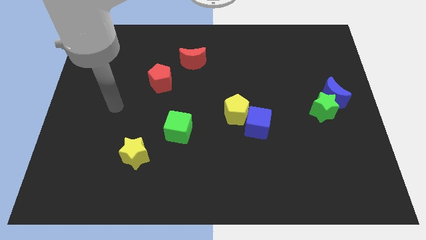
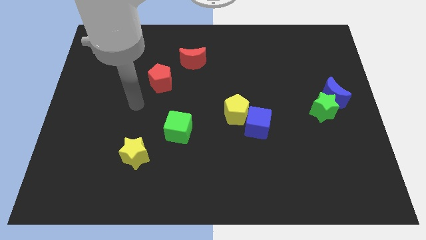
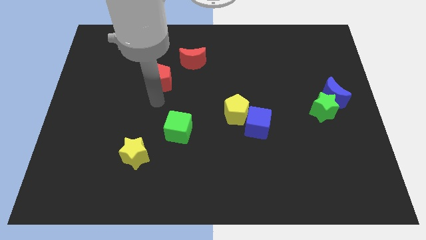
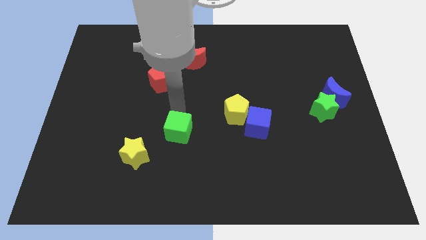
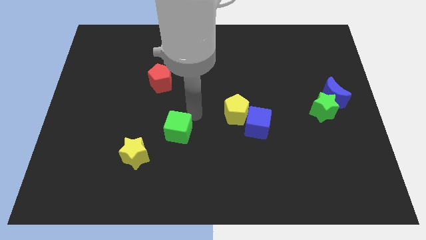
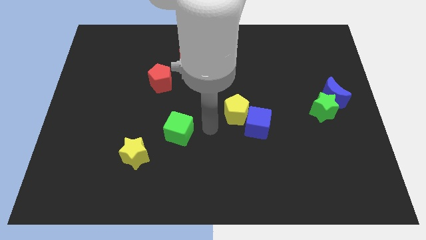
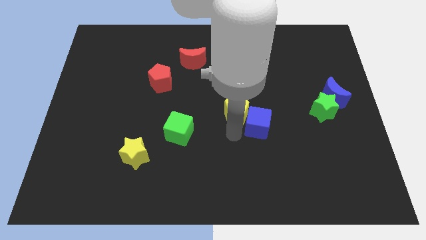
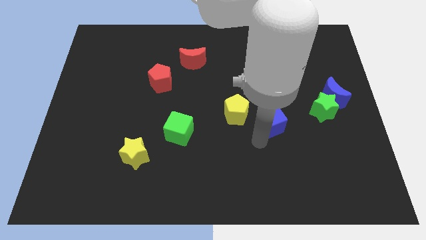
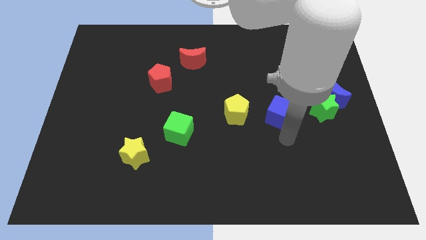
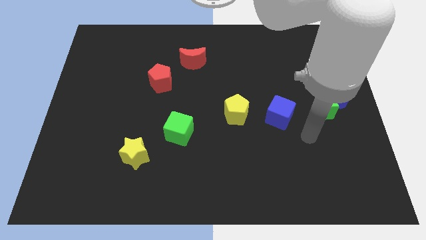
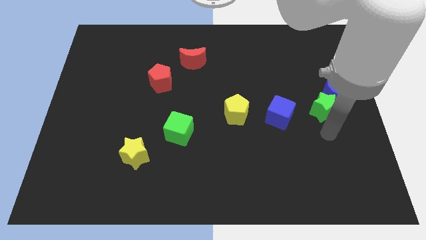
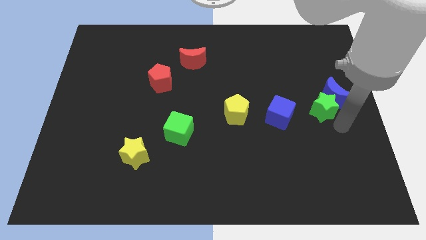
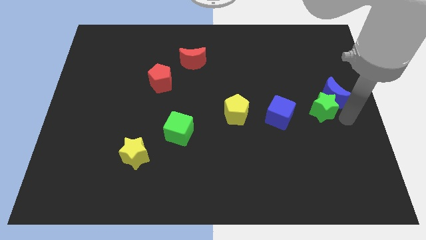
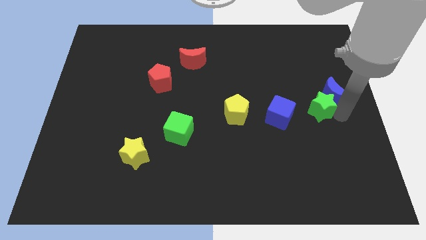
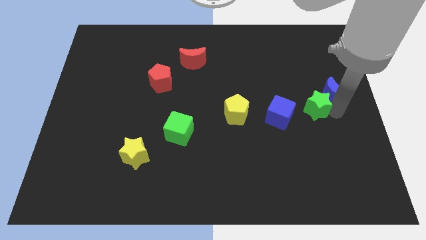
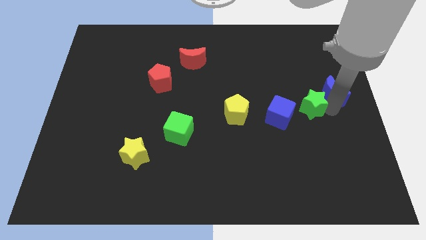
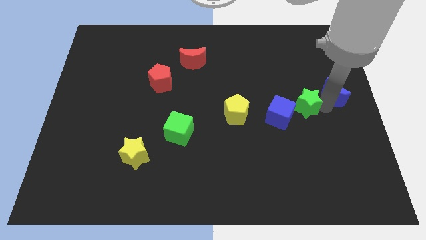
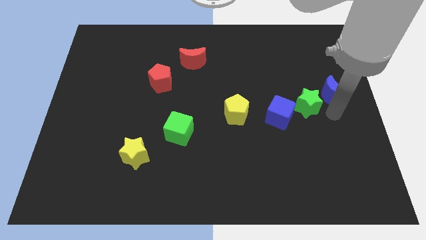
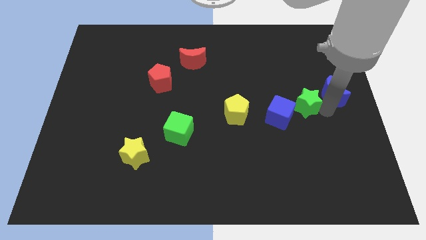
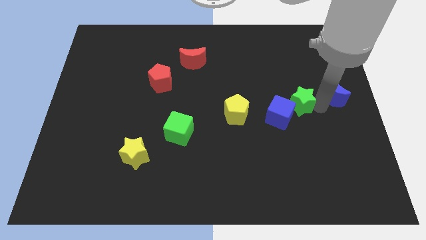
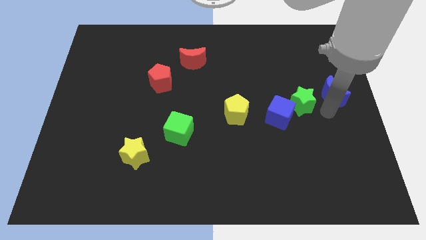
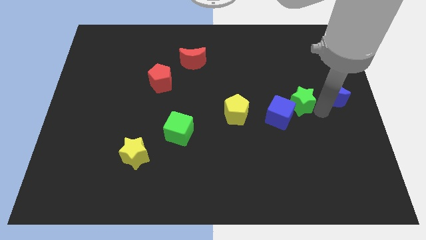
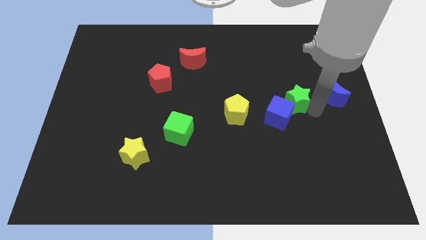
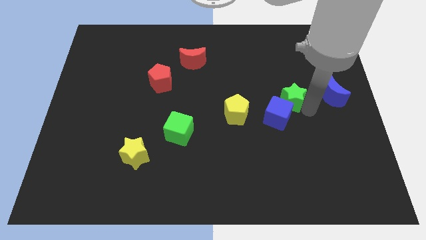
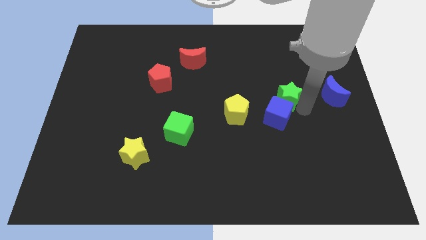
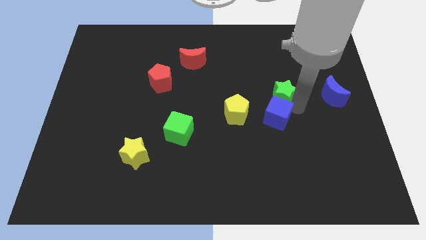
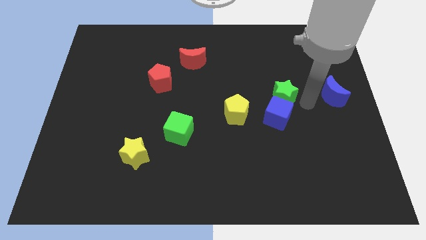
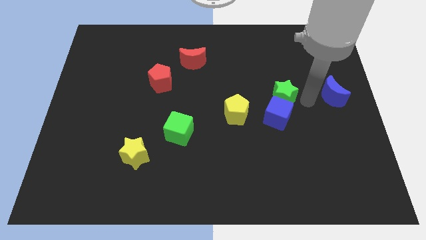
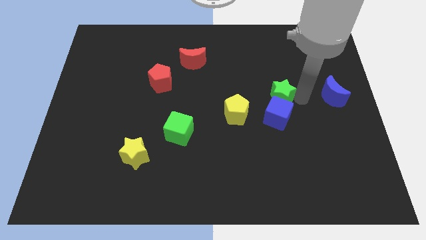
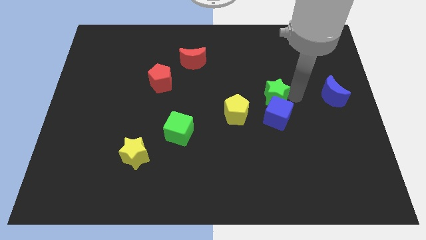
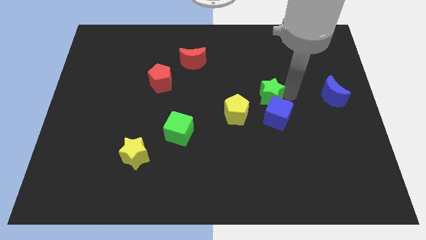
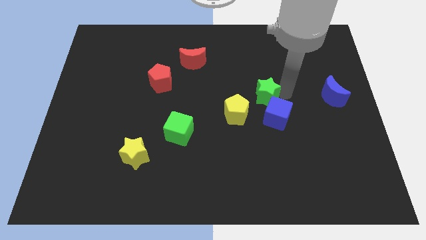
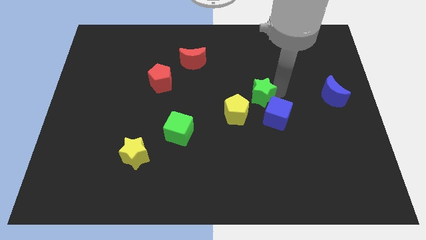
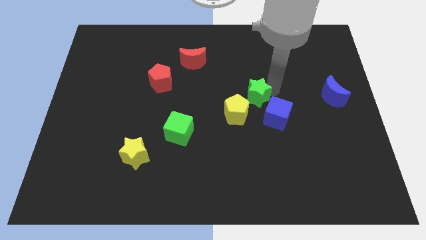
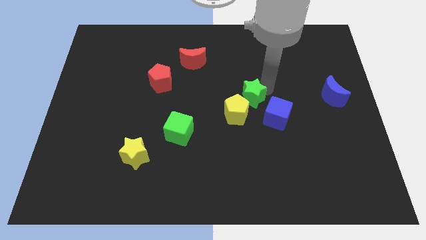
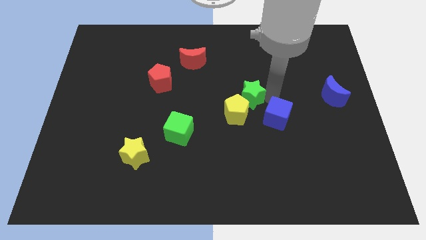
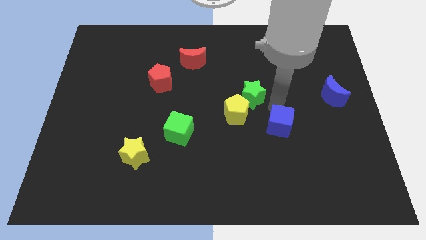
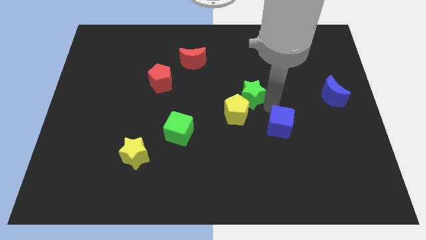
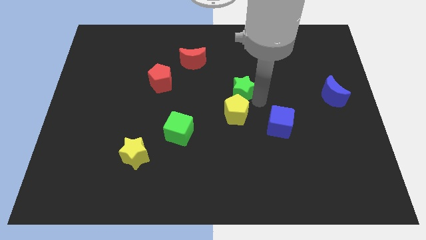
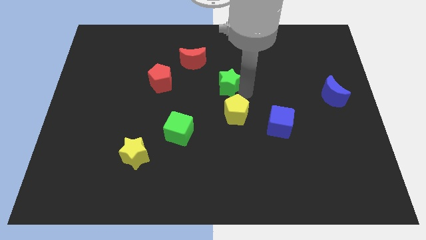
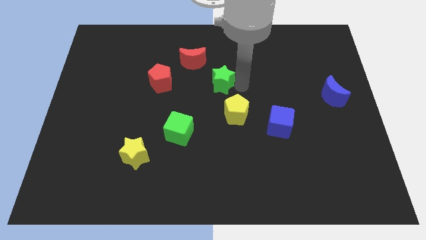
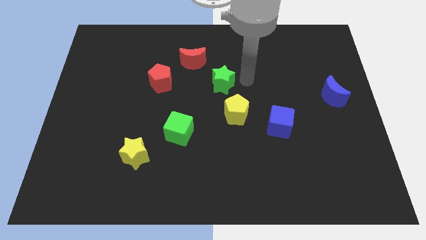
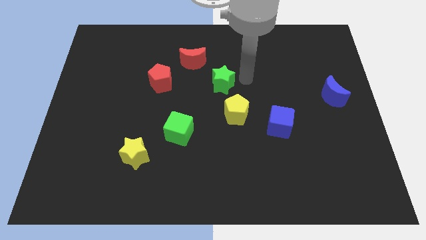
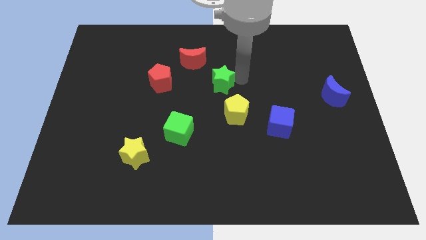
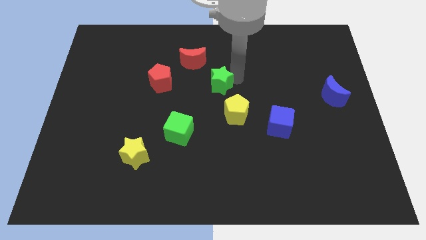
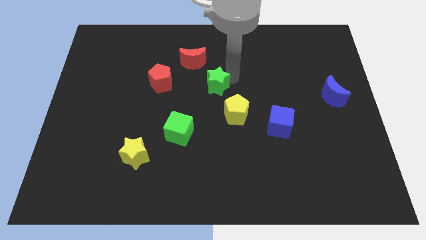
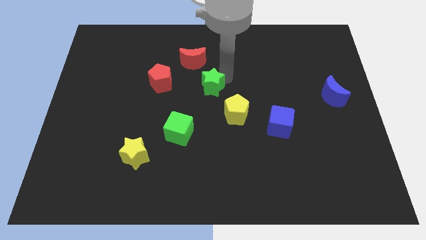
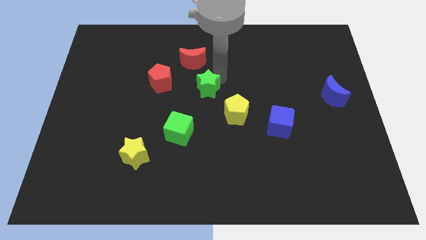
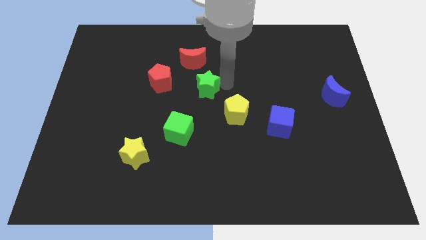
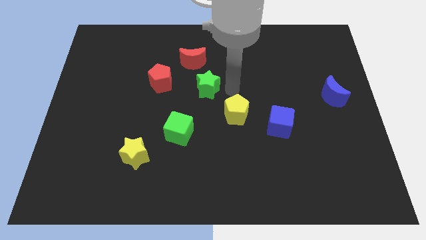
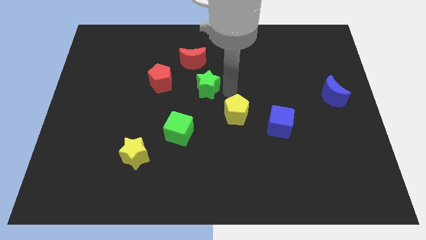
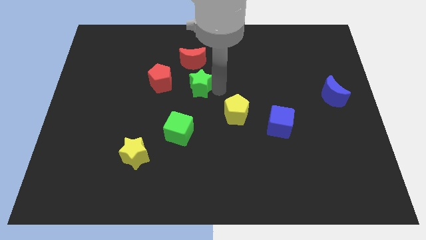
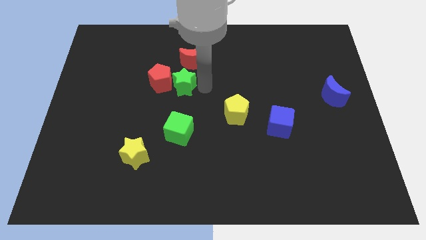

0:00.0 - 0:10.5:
push the green star towards the red pentagon

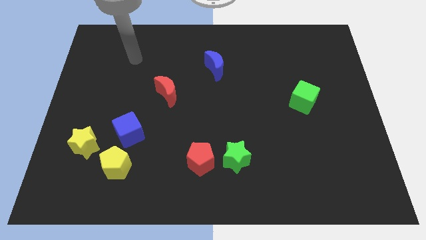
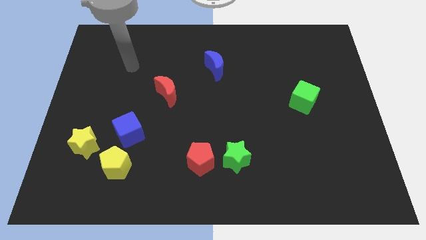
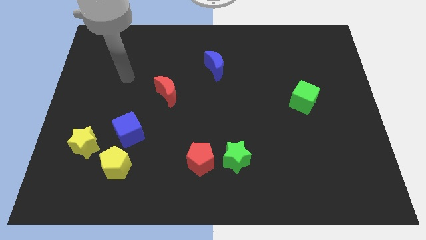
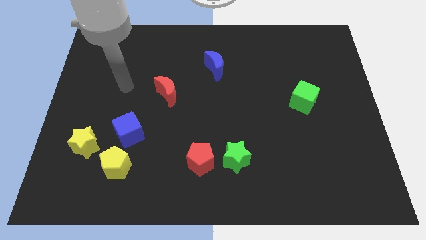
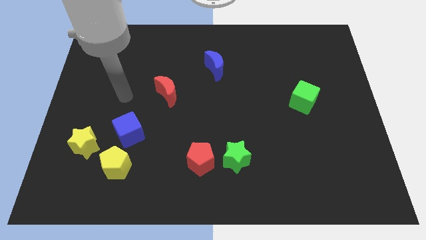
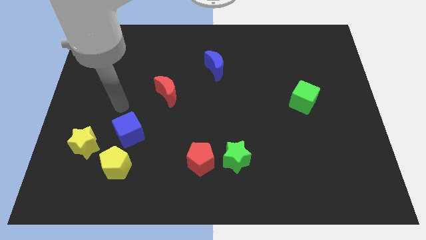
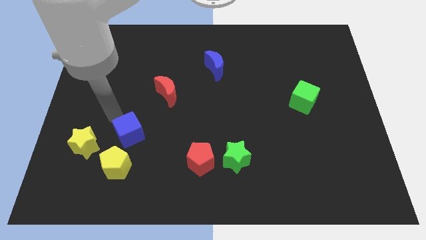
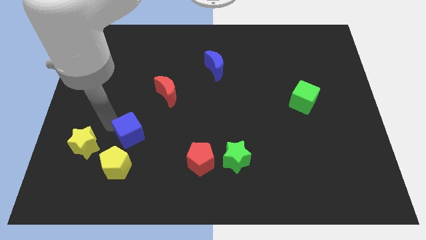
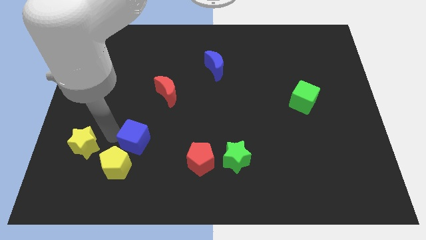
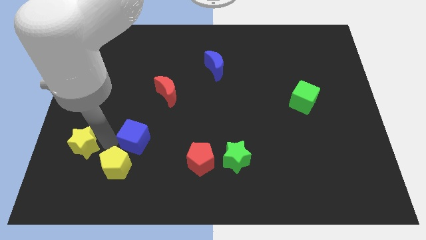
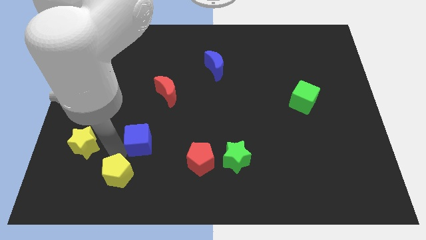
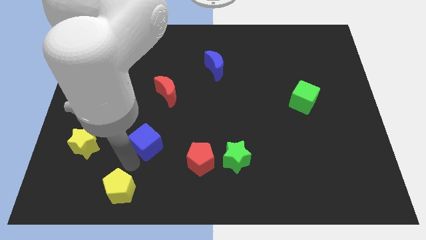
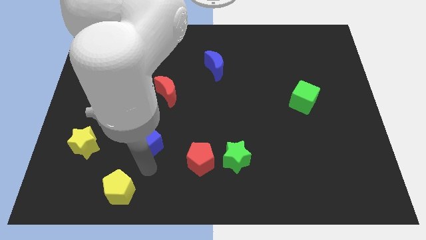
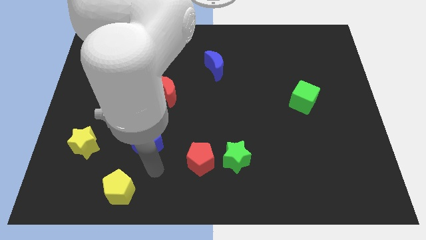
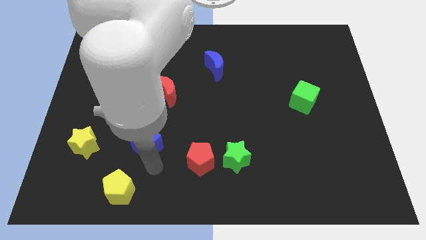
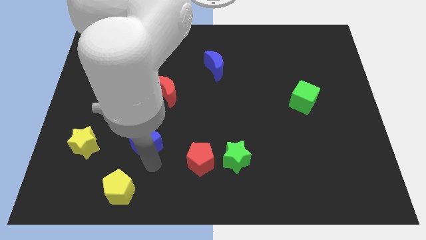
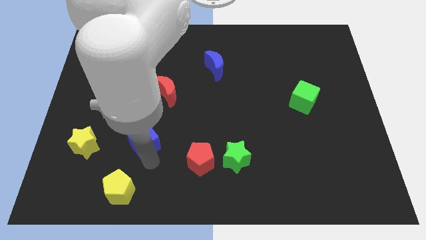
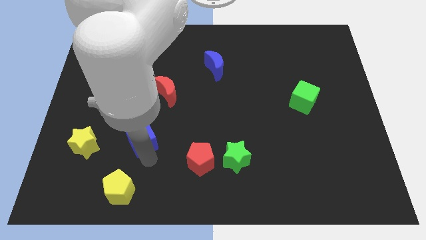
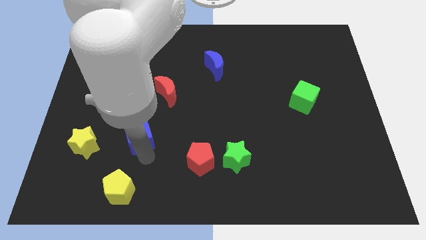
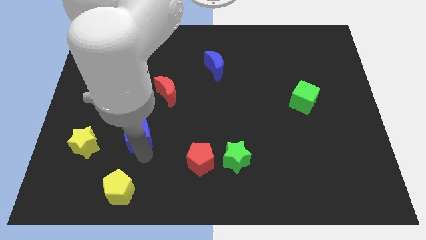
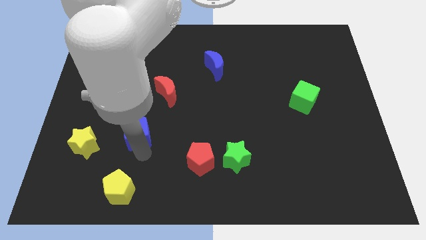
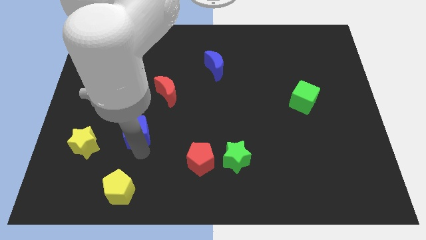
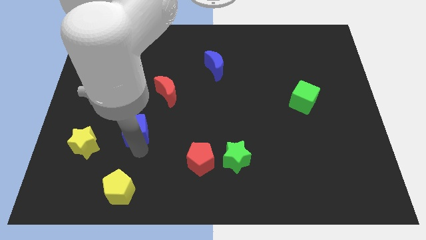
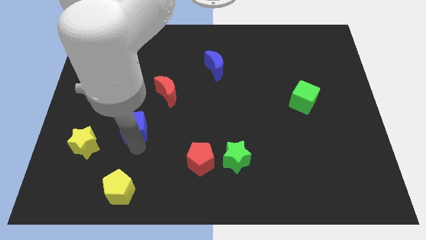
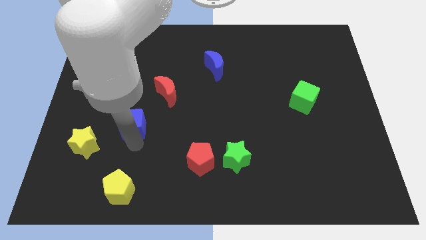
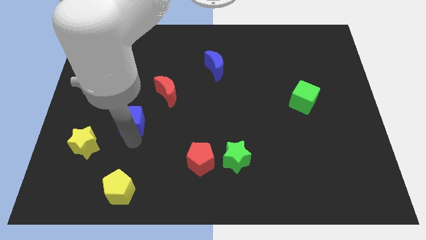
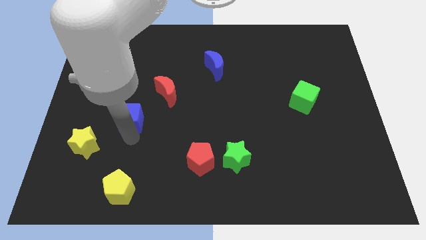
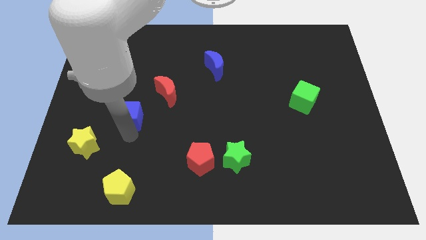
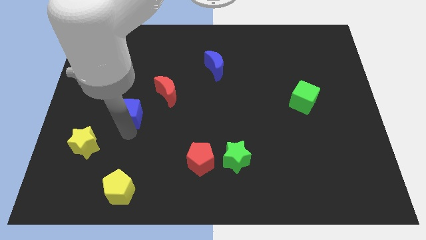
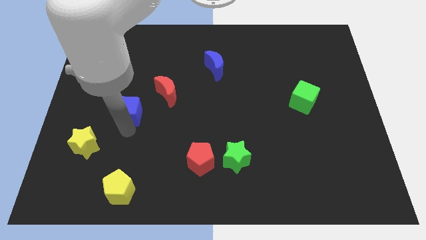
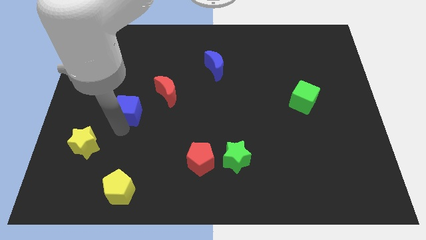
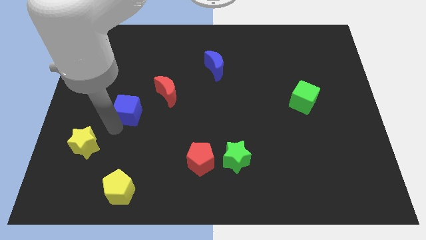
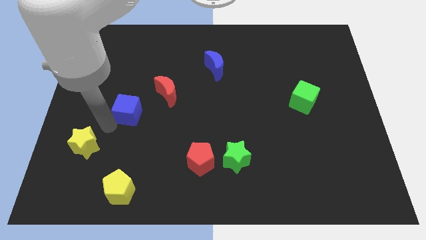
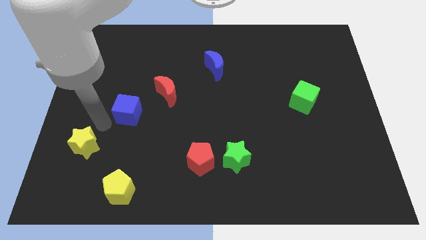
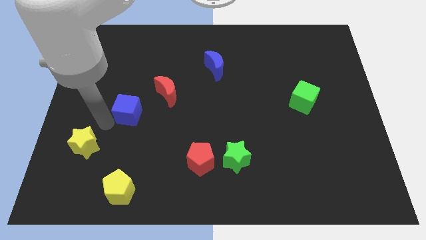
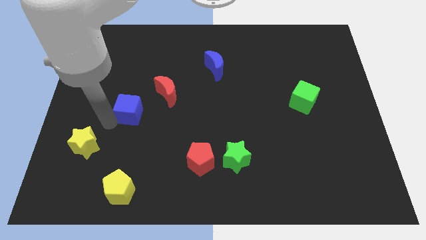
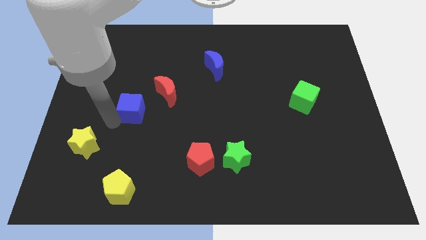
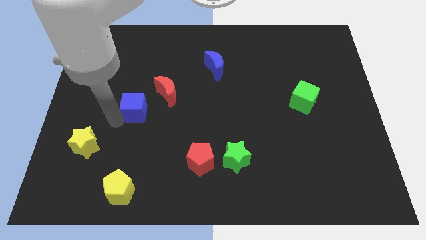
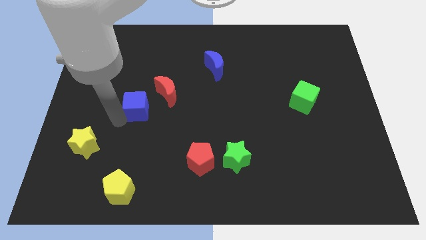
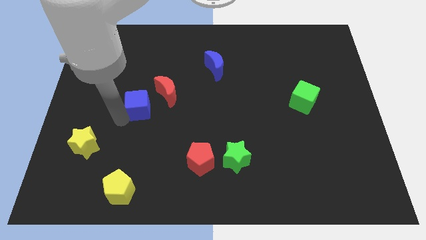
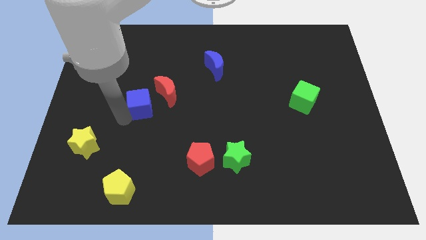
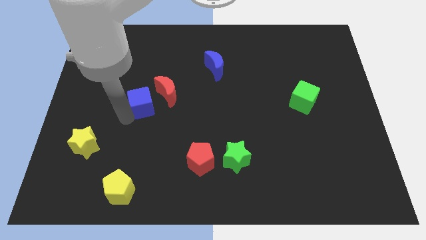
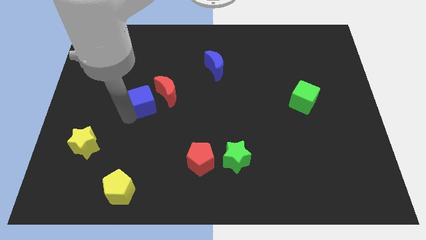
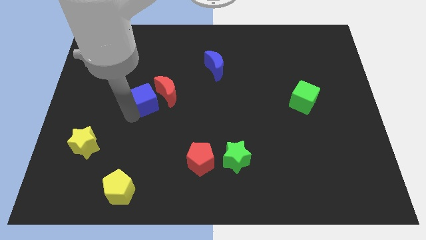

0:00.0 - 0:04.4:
slide the blue cube next to the red moon
